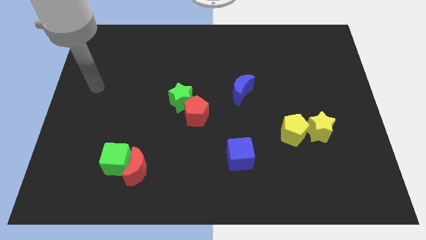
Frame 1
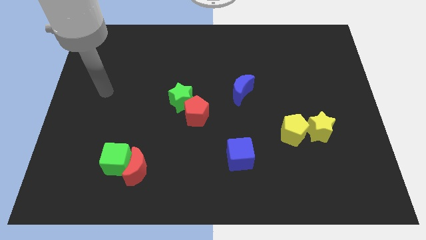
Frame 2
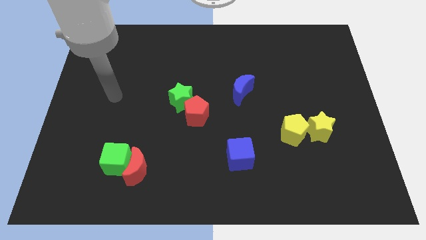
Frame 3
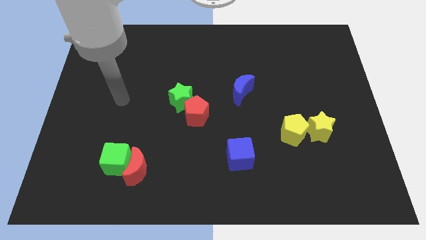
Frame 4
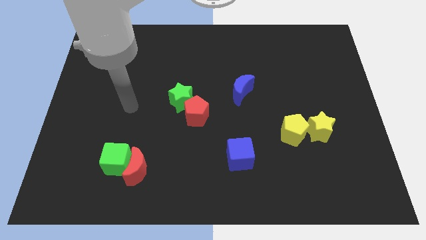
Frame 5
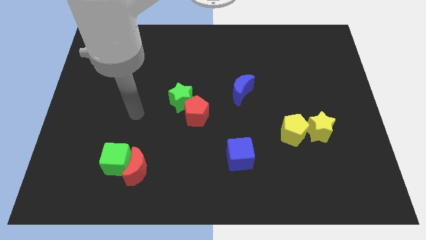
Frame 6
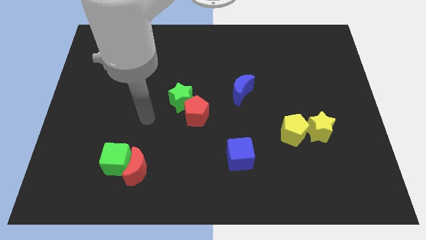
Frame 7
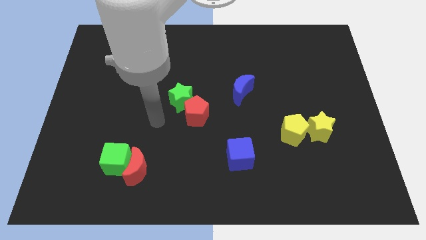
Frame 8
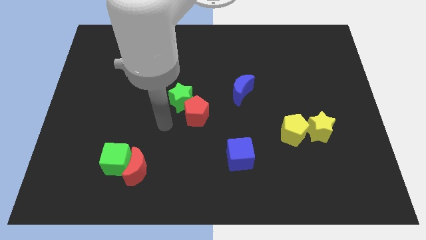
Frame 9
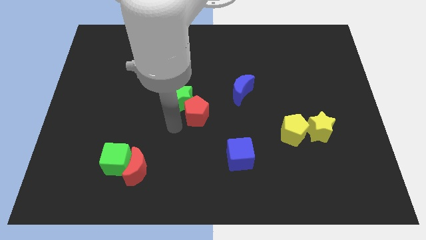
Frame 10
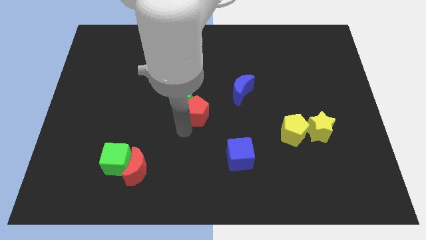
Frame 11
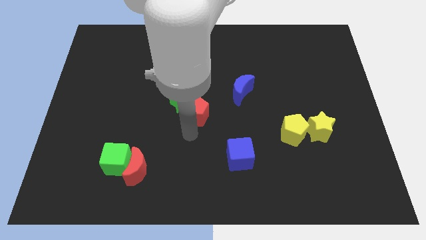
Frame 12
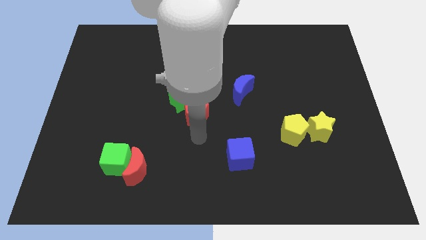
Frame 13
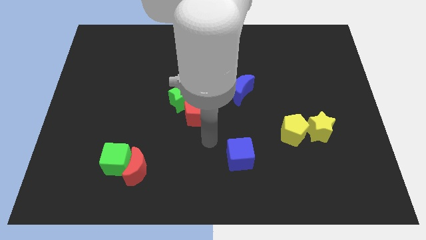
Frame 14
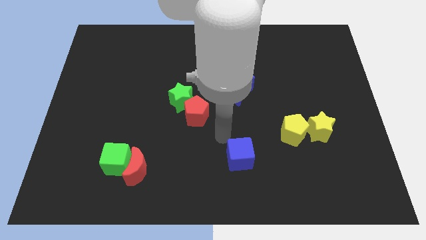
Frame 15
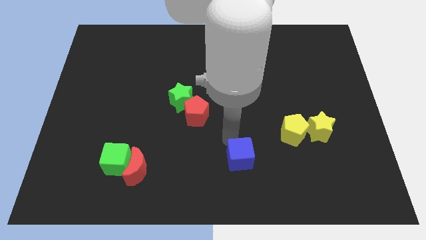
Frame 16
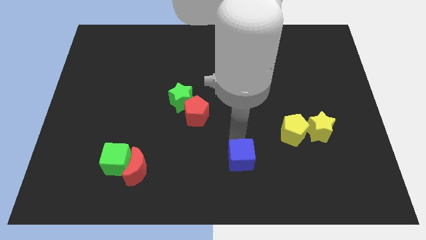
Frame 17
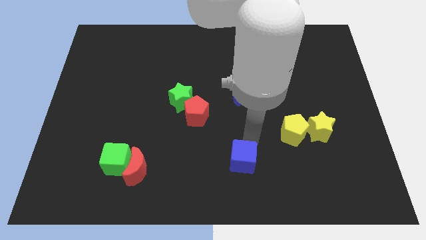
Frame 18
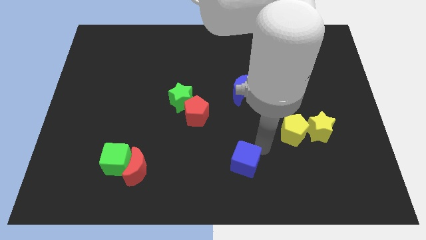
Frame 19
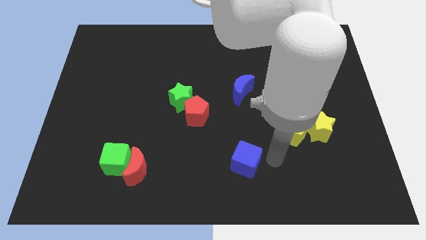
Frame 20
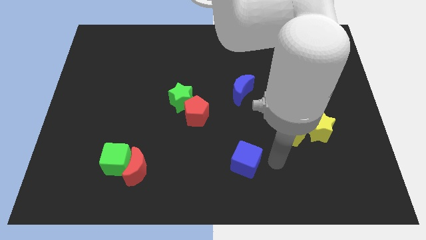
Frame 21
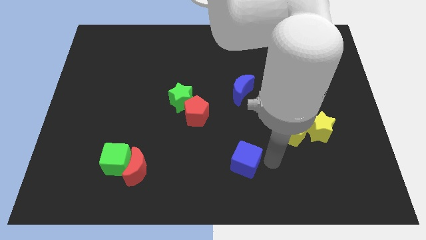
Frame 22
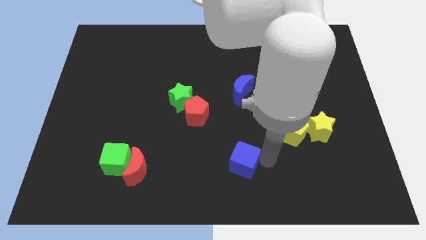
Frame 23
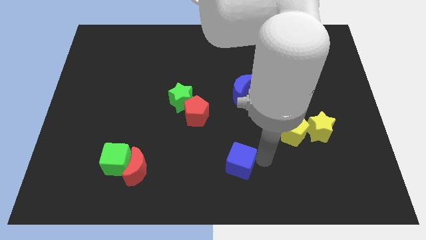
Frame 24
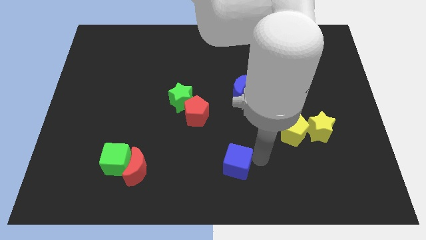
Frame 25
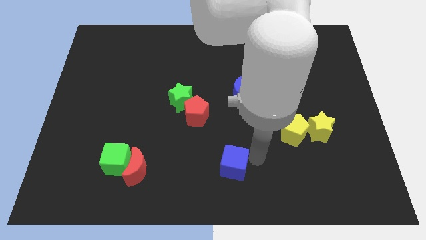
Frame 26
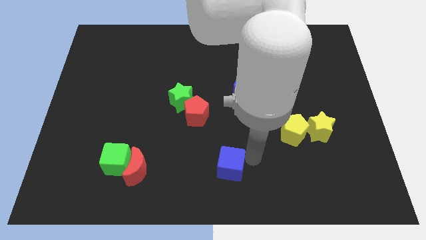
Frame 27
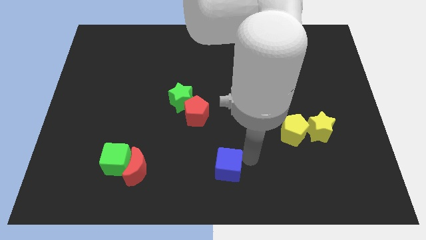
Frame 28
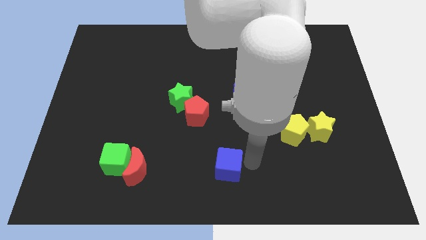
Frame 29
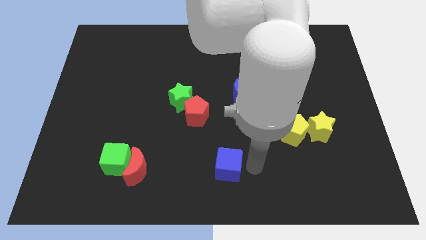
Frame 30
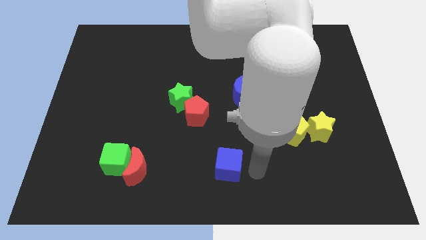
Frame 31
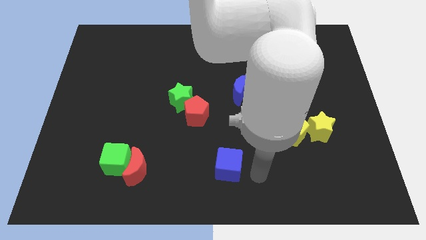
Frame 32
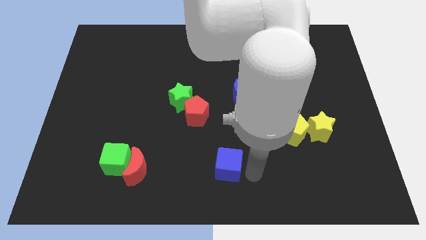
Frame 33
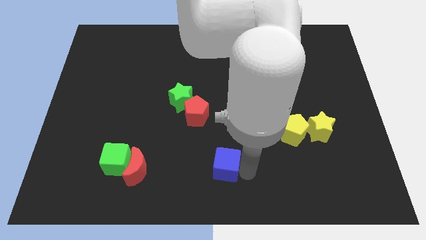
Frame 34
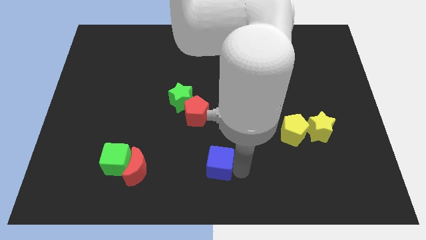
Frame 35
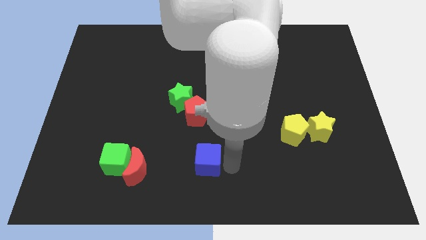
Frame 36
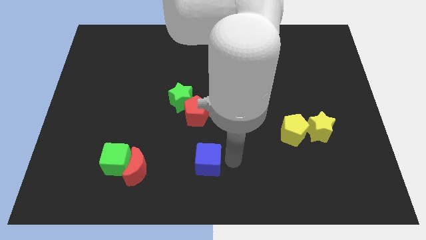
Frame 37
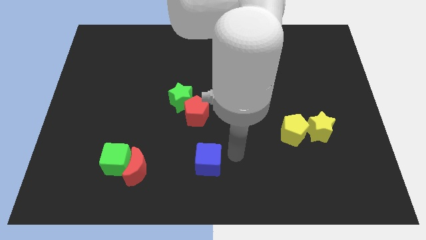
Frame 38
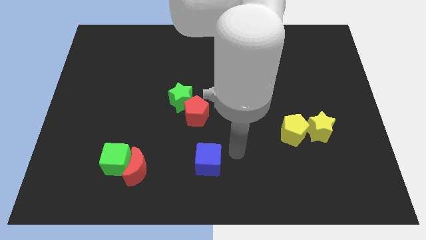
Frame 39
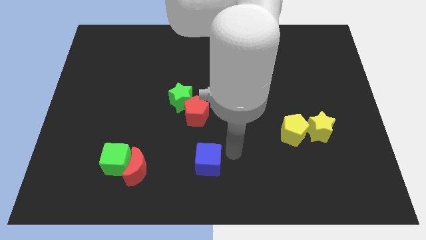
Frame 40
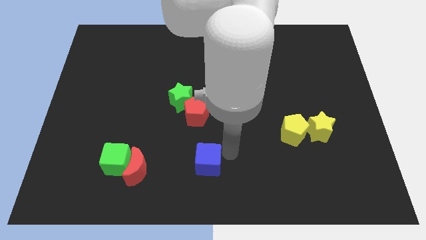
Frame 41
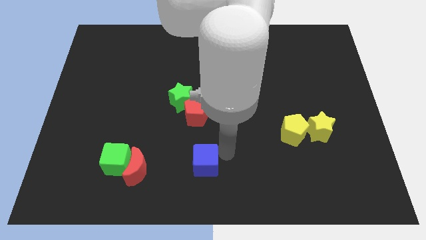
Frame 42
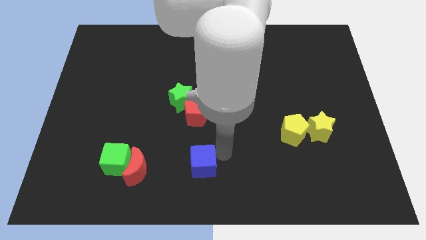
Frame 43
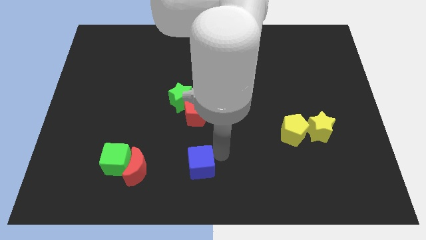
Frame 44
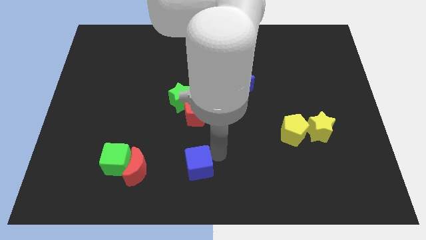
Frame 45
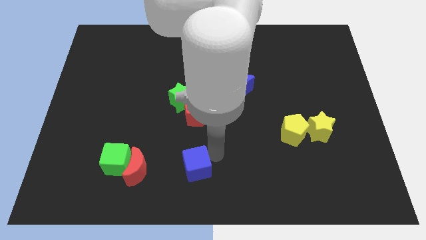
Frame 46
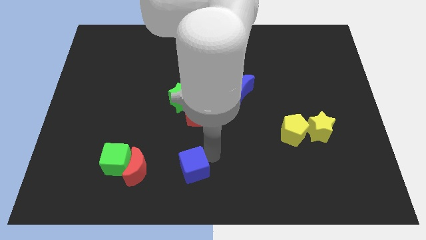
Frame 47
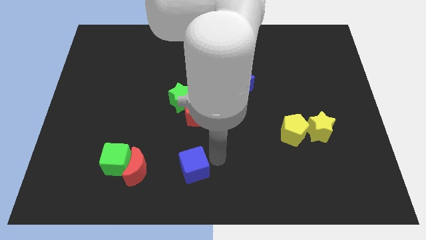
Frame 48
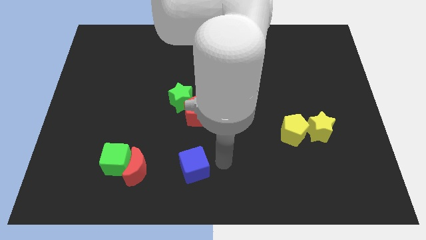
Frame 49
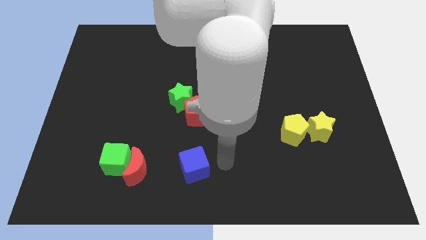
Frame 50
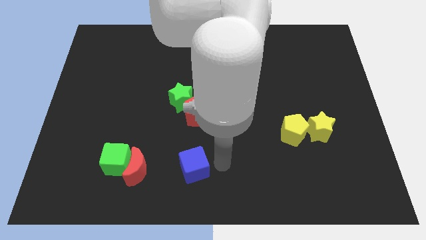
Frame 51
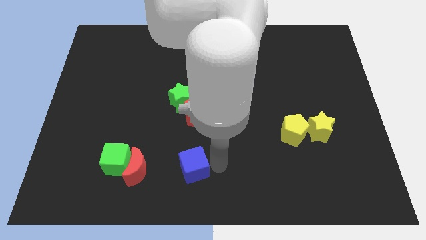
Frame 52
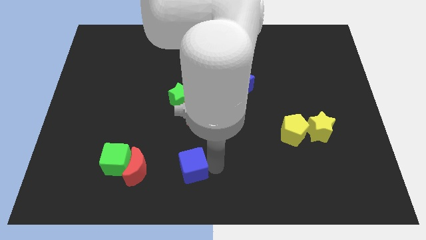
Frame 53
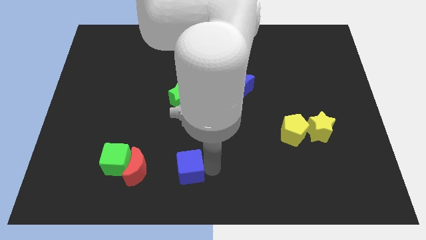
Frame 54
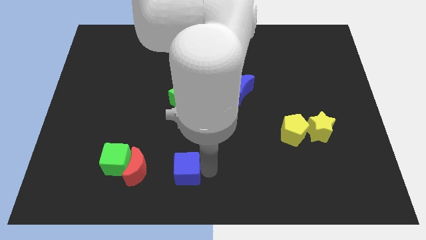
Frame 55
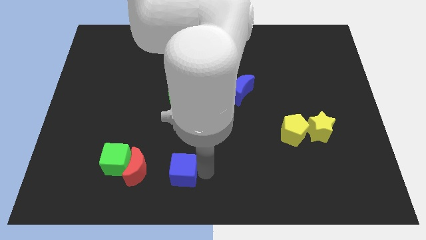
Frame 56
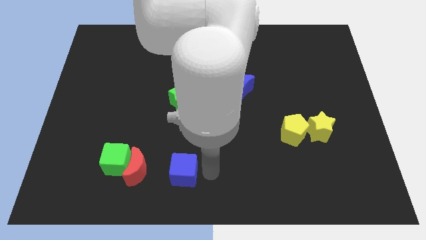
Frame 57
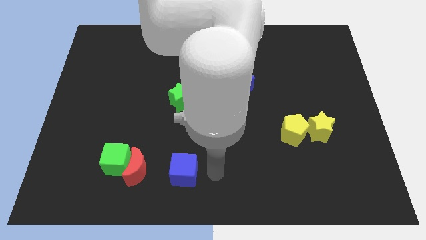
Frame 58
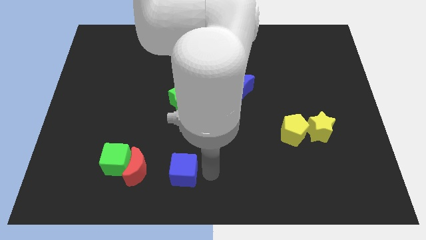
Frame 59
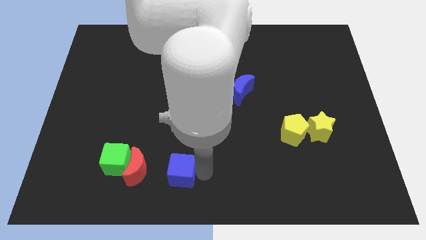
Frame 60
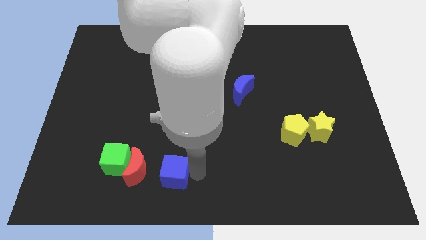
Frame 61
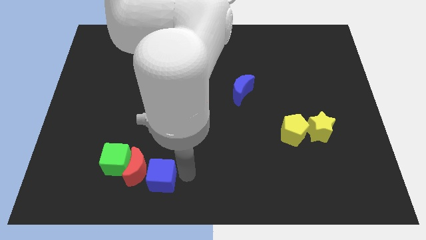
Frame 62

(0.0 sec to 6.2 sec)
put the blue cube towards the red moon

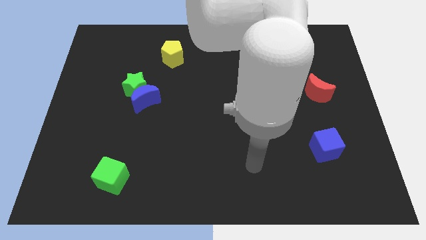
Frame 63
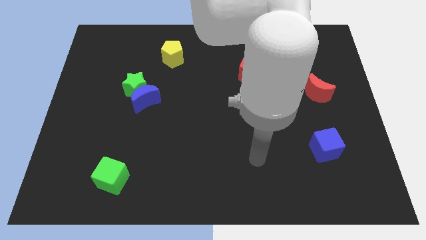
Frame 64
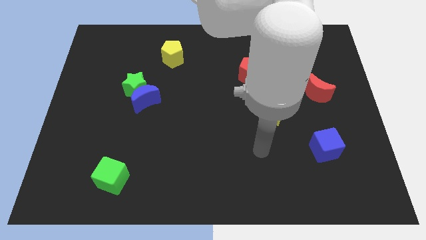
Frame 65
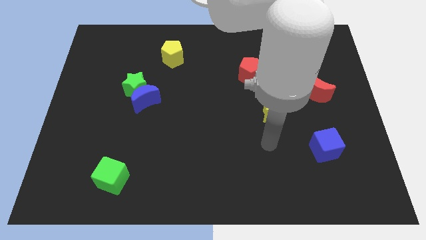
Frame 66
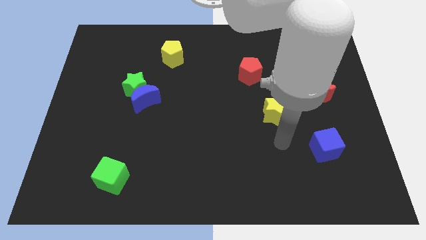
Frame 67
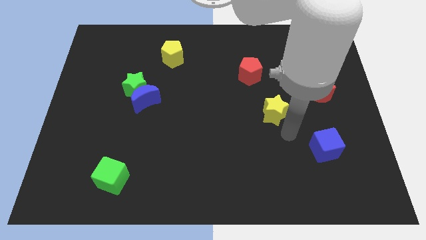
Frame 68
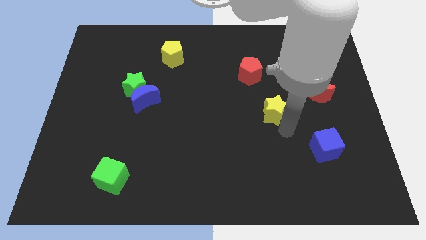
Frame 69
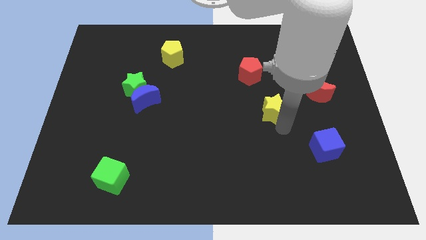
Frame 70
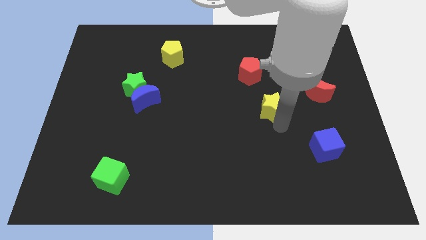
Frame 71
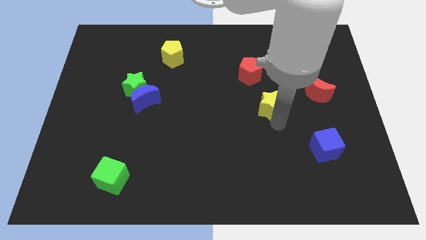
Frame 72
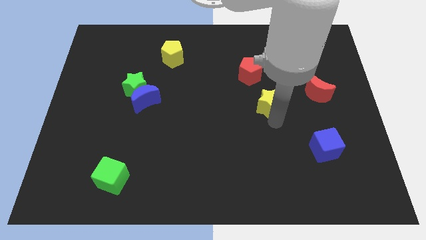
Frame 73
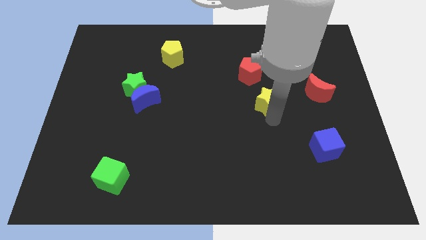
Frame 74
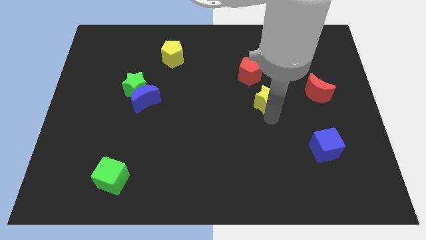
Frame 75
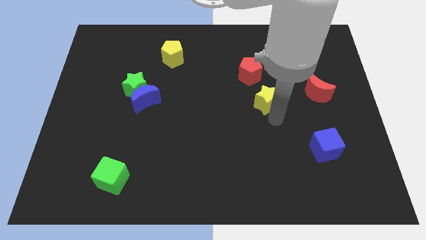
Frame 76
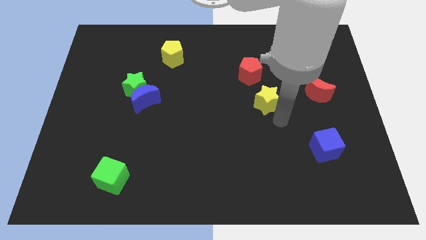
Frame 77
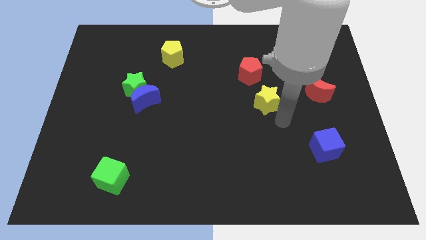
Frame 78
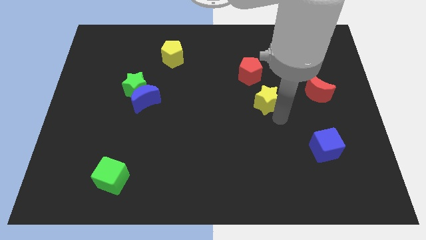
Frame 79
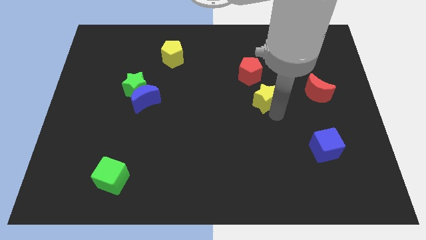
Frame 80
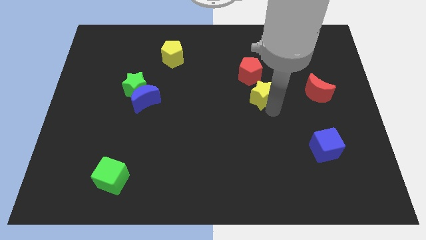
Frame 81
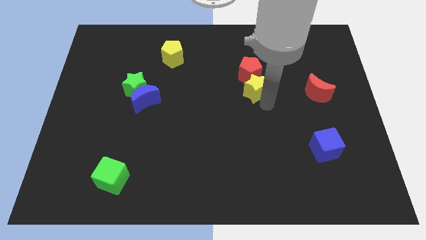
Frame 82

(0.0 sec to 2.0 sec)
put the yellow star next to the red pentagon
